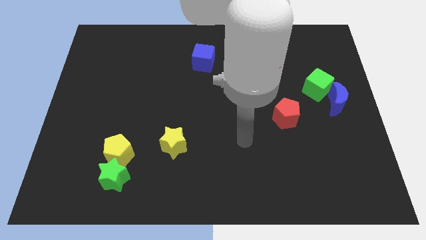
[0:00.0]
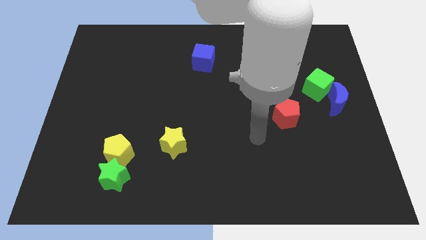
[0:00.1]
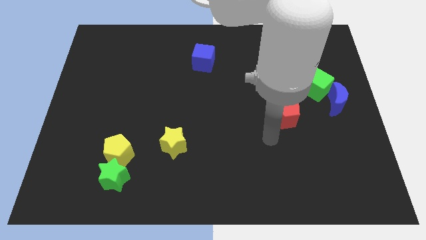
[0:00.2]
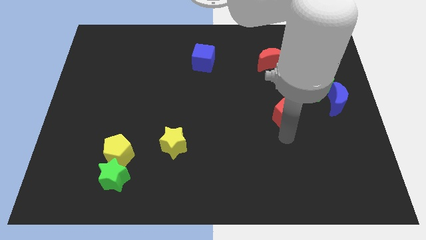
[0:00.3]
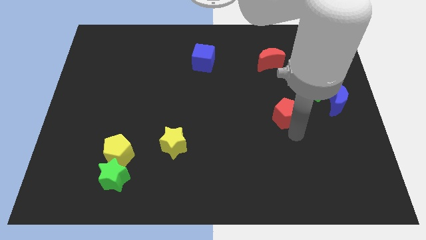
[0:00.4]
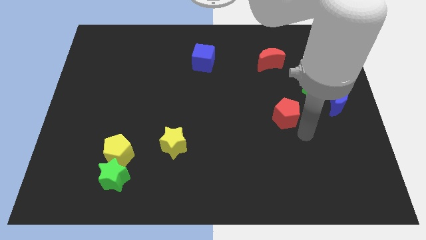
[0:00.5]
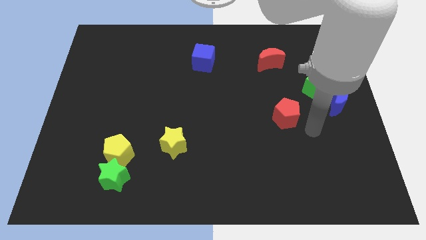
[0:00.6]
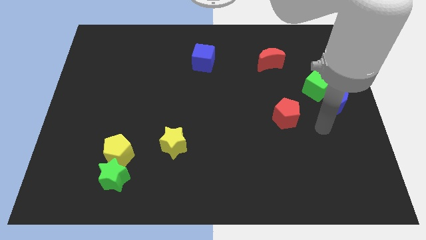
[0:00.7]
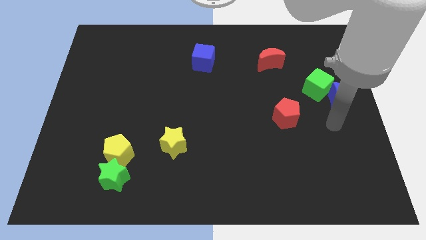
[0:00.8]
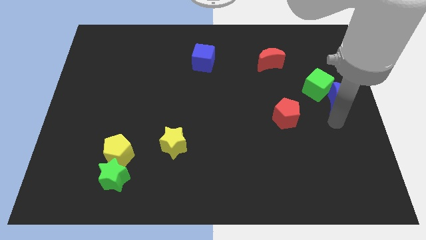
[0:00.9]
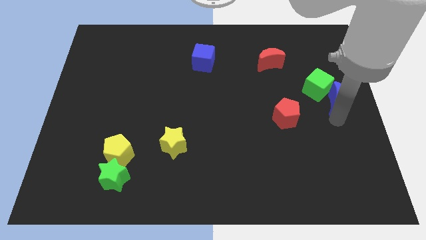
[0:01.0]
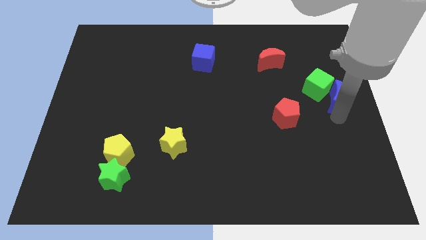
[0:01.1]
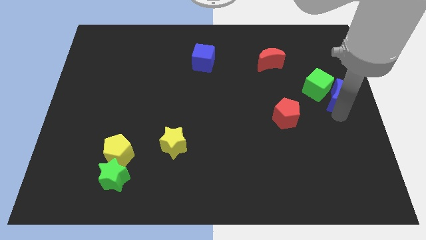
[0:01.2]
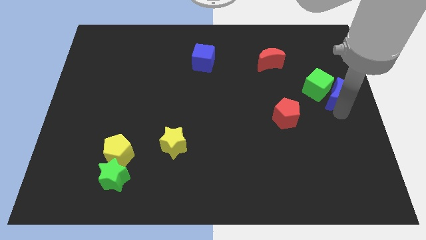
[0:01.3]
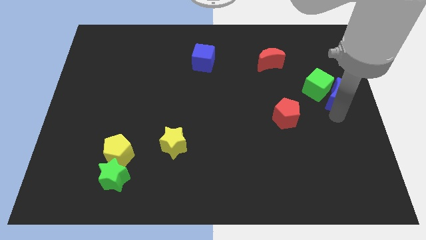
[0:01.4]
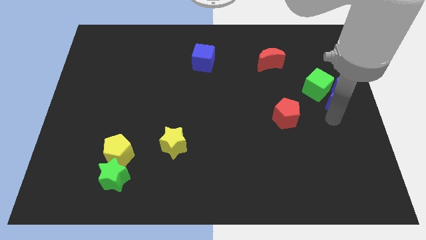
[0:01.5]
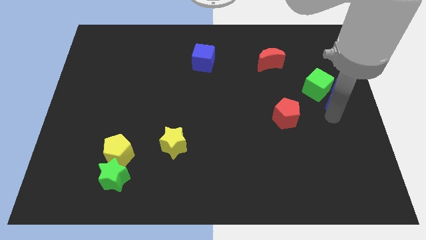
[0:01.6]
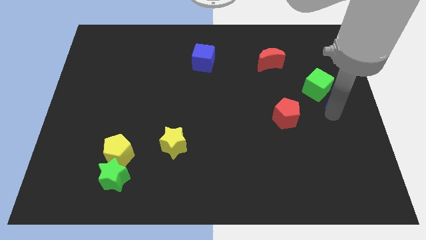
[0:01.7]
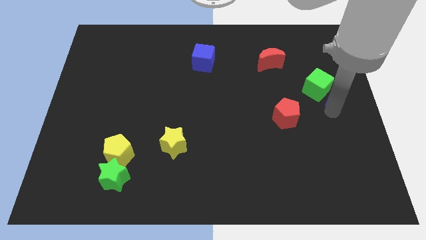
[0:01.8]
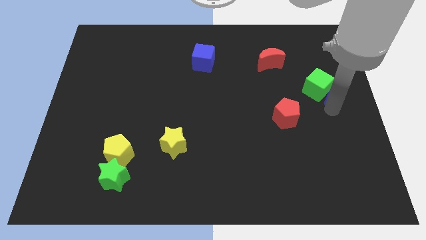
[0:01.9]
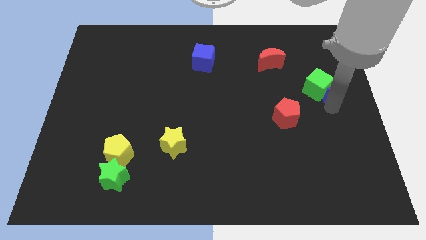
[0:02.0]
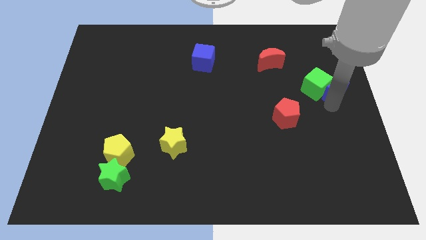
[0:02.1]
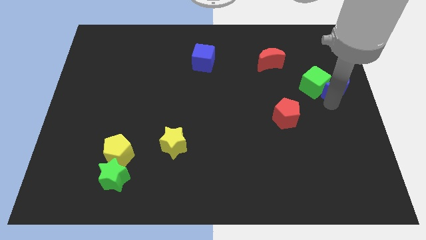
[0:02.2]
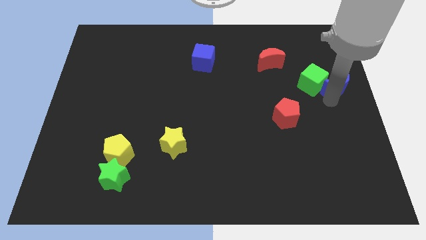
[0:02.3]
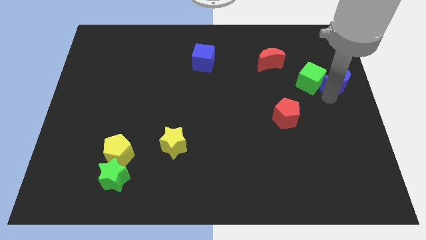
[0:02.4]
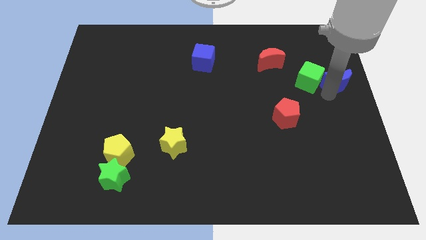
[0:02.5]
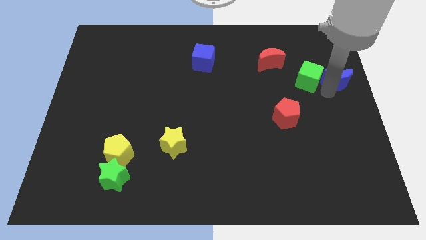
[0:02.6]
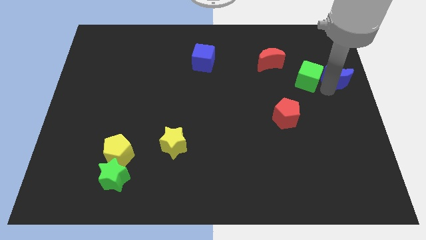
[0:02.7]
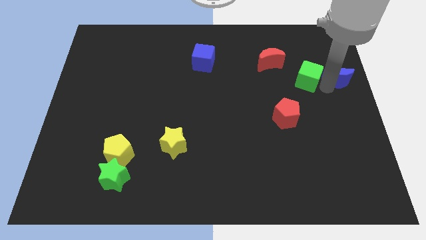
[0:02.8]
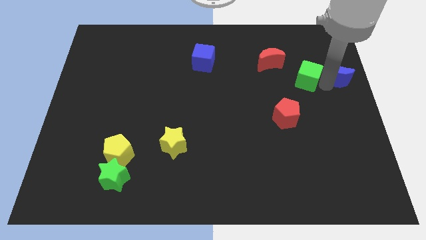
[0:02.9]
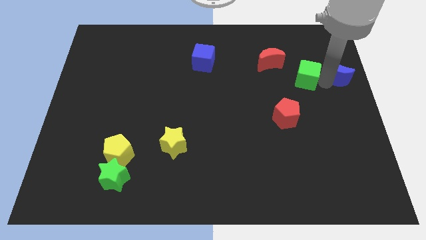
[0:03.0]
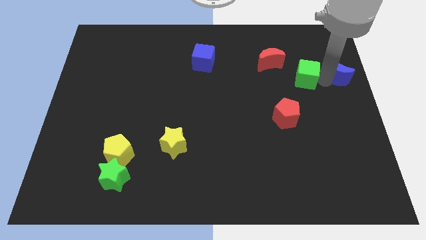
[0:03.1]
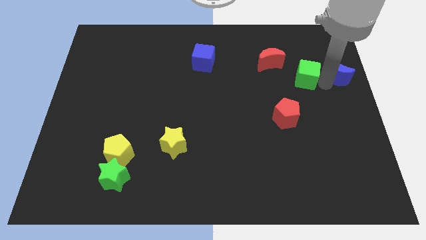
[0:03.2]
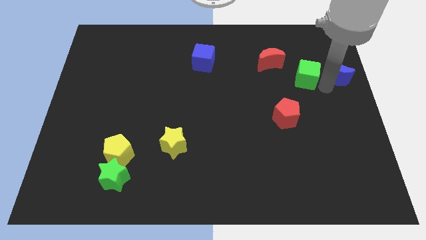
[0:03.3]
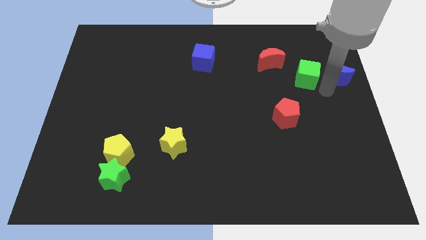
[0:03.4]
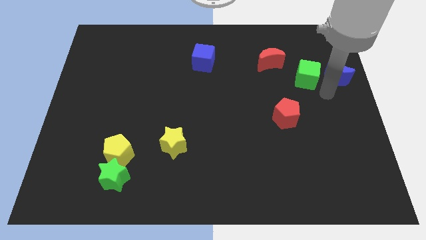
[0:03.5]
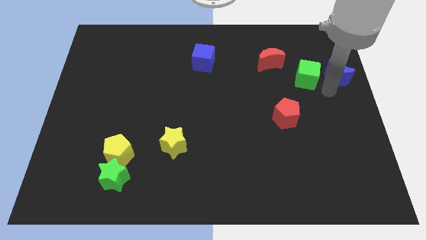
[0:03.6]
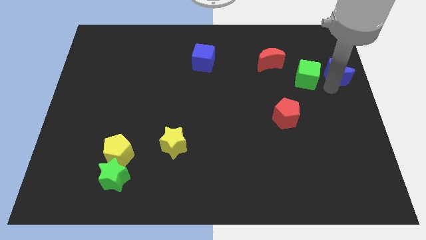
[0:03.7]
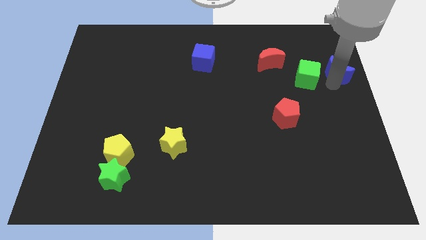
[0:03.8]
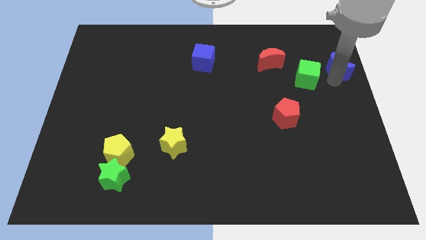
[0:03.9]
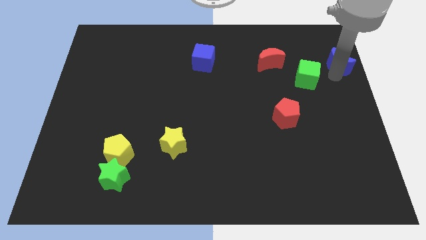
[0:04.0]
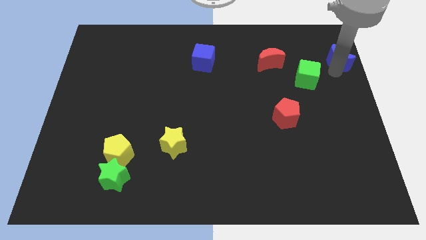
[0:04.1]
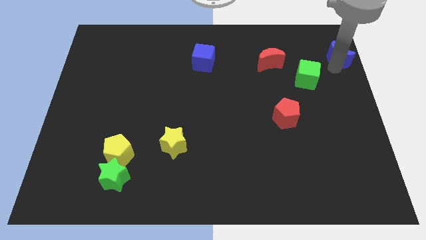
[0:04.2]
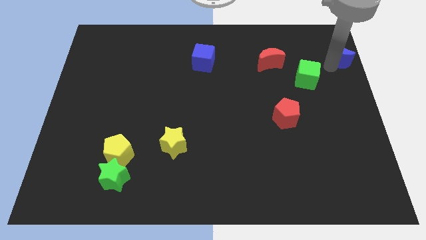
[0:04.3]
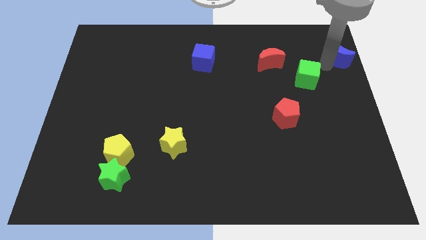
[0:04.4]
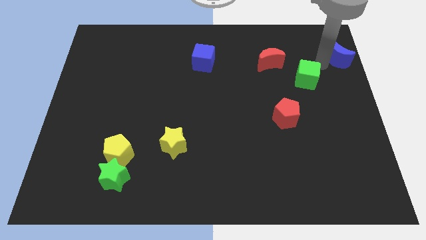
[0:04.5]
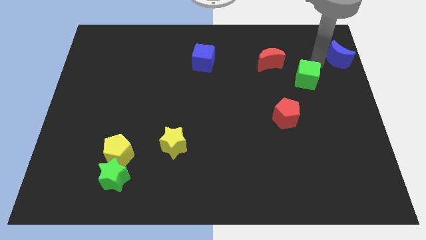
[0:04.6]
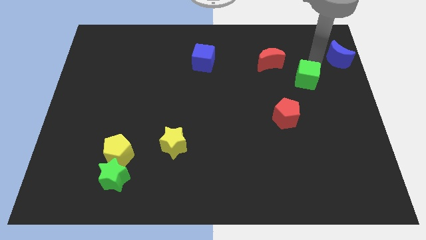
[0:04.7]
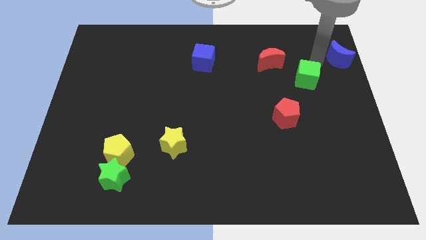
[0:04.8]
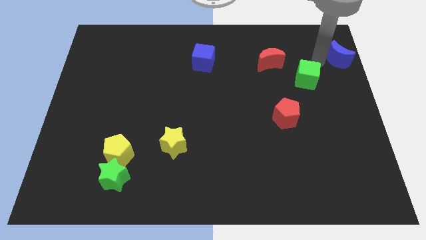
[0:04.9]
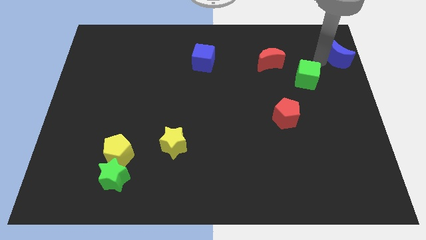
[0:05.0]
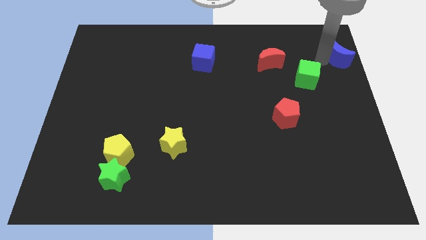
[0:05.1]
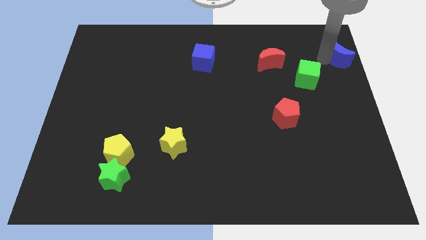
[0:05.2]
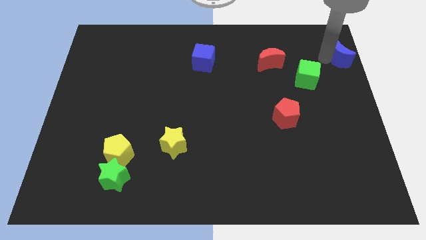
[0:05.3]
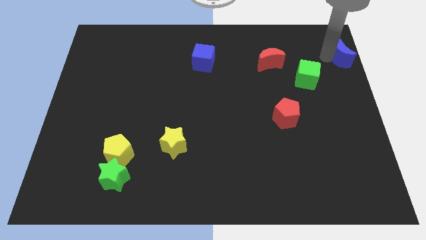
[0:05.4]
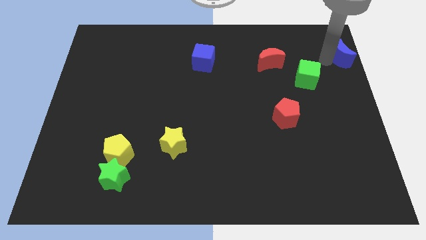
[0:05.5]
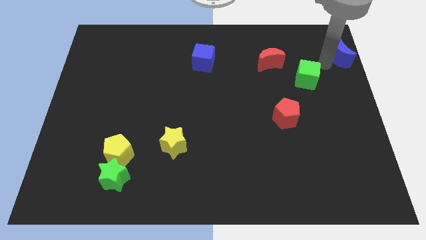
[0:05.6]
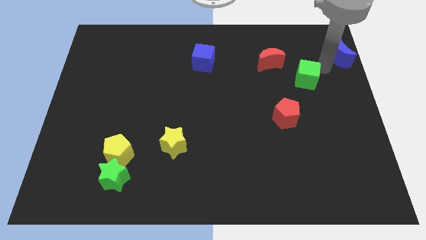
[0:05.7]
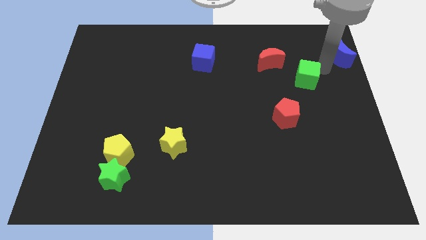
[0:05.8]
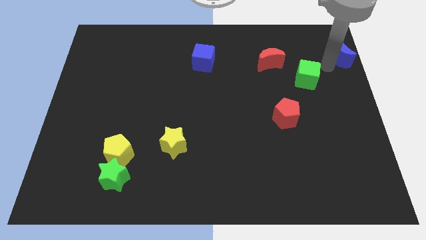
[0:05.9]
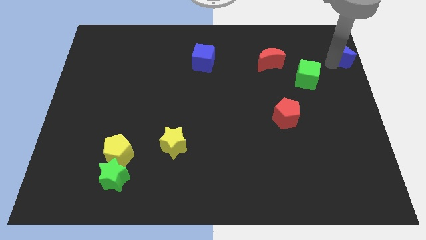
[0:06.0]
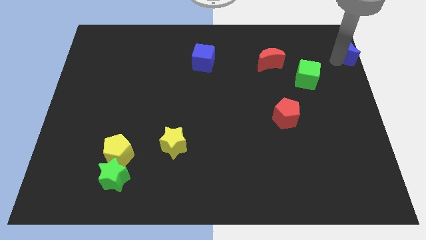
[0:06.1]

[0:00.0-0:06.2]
slide the blue moon to the top right corner
